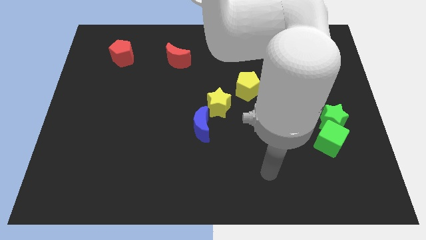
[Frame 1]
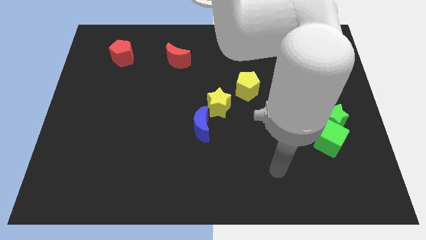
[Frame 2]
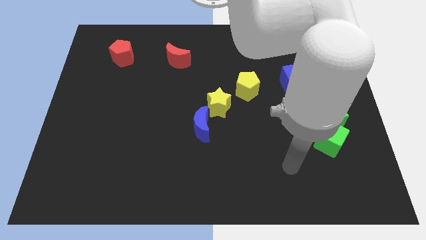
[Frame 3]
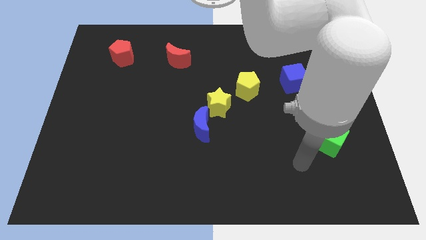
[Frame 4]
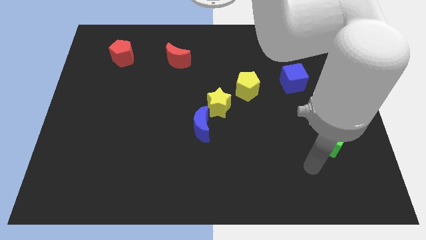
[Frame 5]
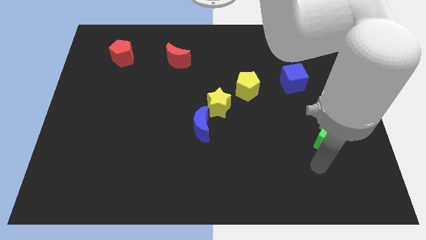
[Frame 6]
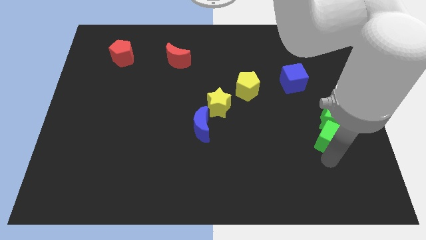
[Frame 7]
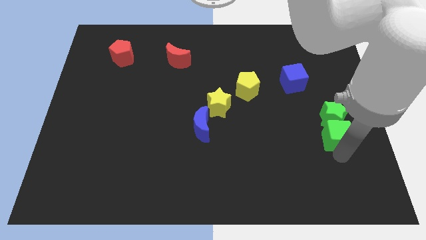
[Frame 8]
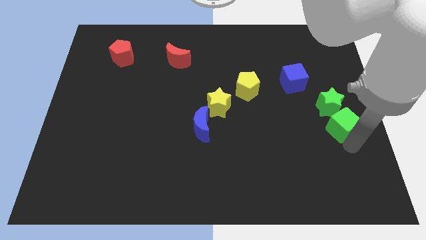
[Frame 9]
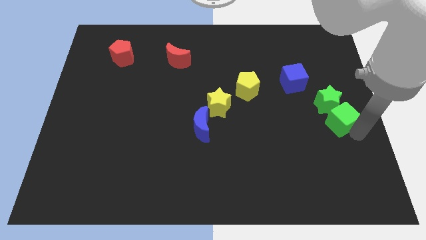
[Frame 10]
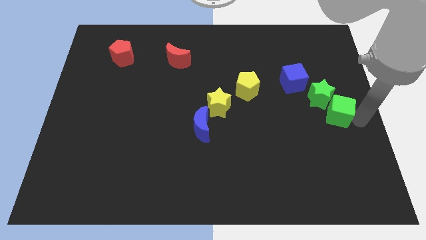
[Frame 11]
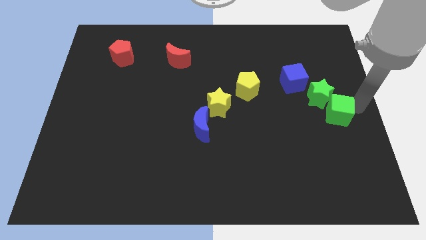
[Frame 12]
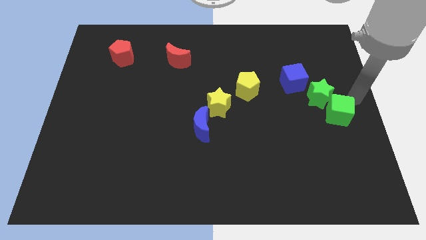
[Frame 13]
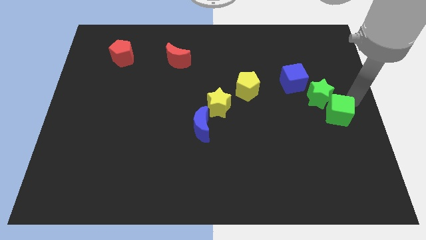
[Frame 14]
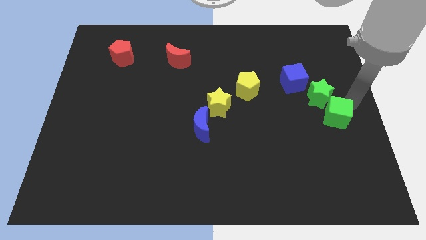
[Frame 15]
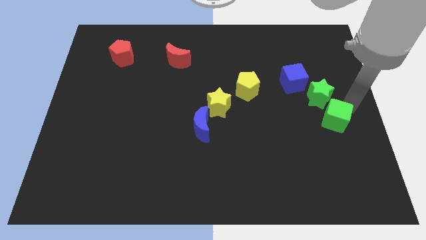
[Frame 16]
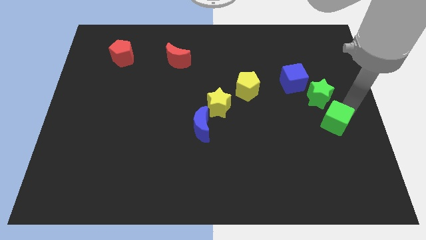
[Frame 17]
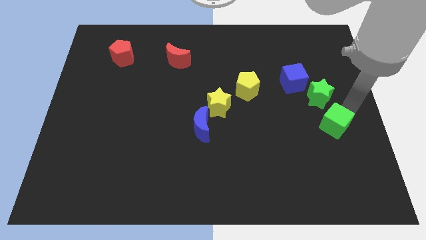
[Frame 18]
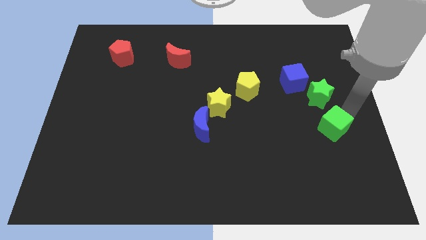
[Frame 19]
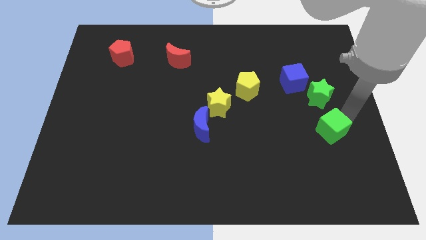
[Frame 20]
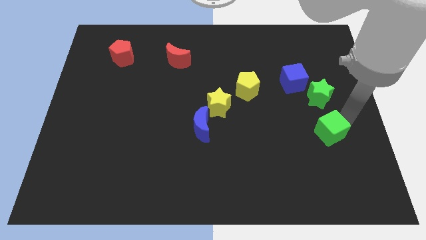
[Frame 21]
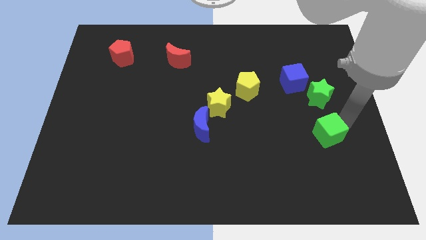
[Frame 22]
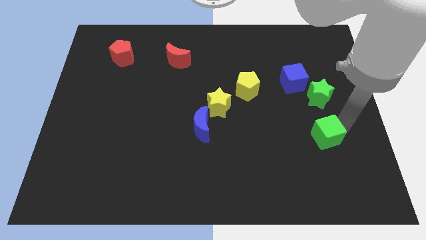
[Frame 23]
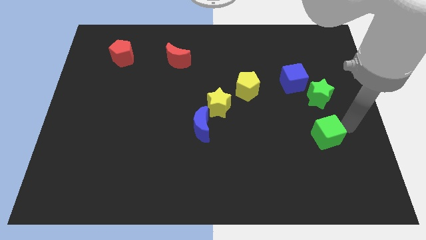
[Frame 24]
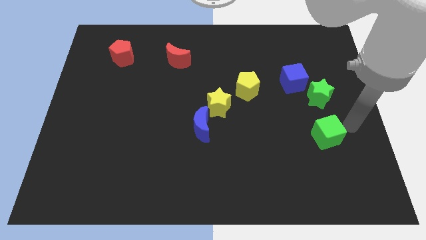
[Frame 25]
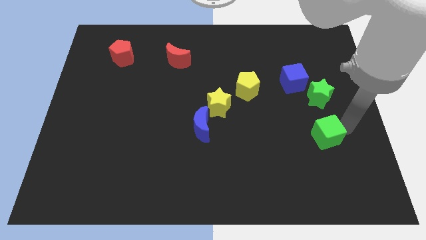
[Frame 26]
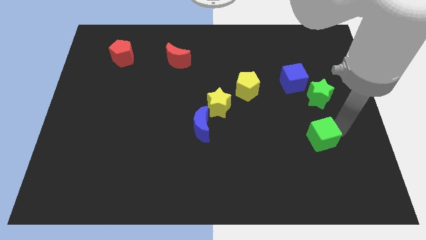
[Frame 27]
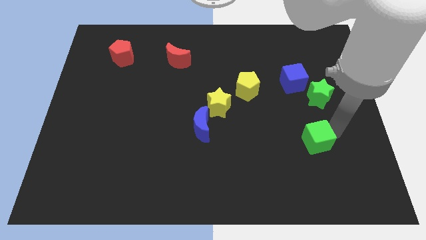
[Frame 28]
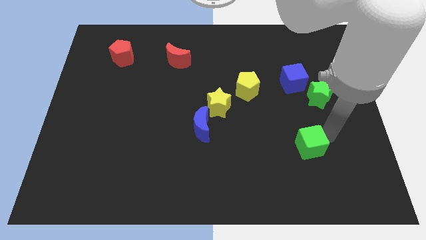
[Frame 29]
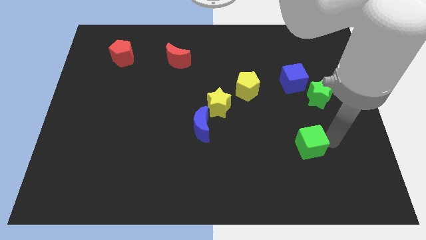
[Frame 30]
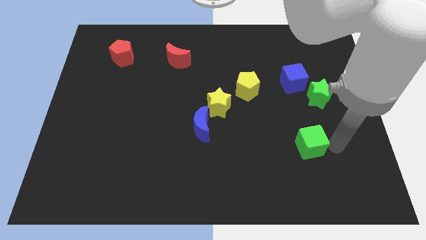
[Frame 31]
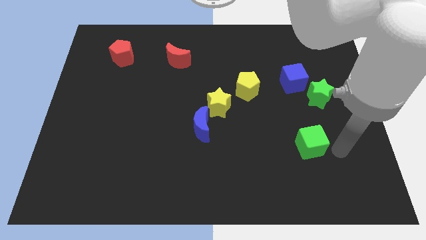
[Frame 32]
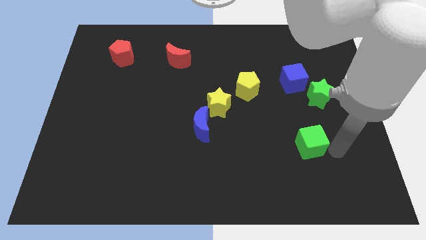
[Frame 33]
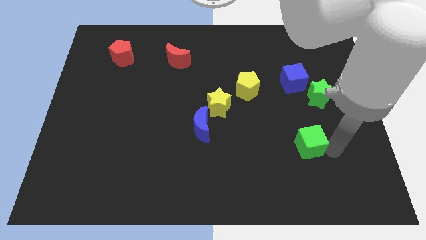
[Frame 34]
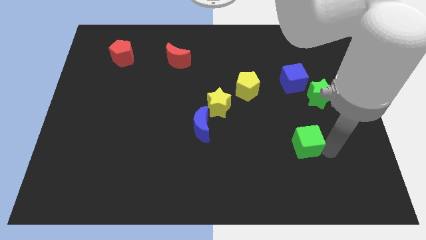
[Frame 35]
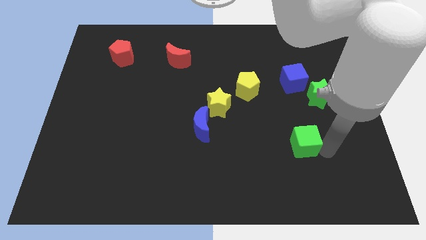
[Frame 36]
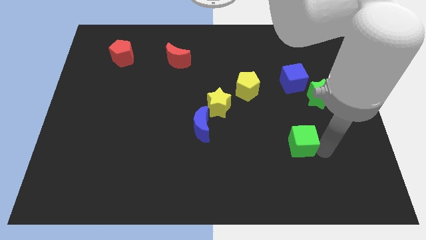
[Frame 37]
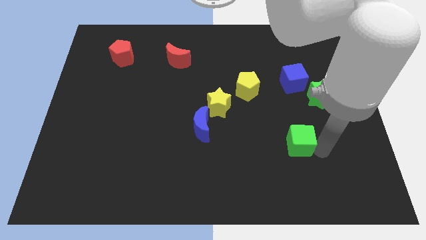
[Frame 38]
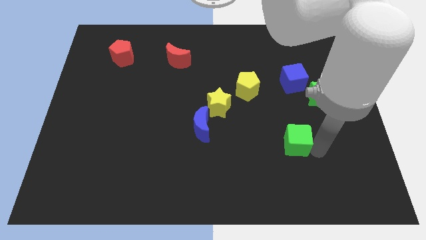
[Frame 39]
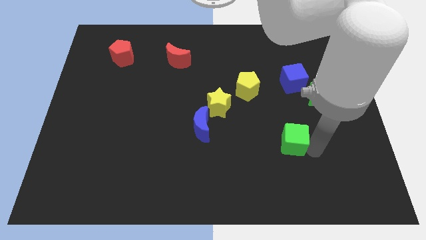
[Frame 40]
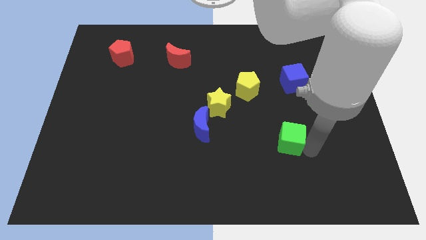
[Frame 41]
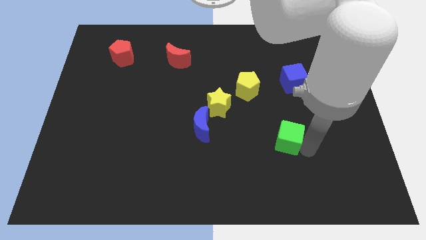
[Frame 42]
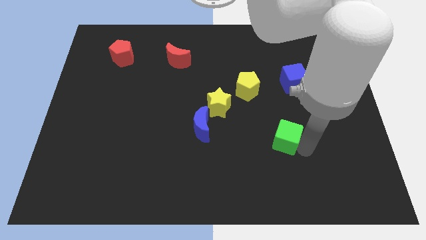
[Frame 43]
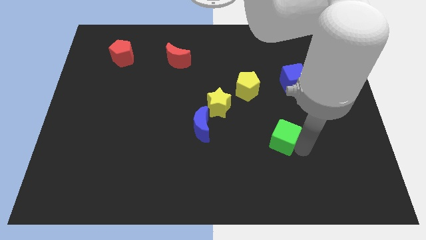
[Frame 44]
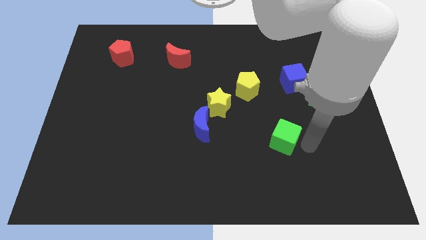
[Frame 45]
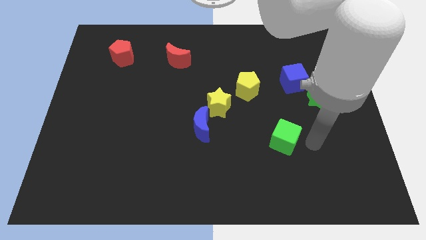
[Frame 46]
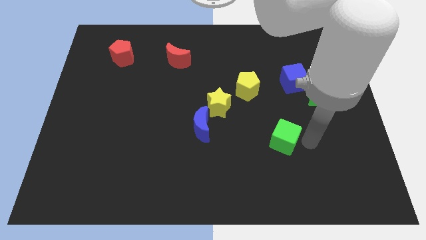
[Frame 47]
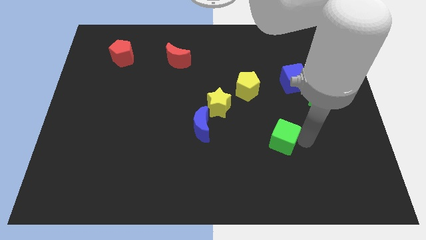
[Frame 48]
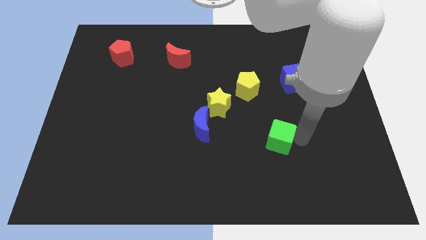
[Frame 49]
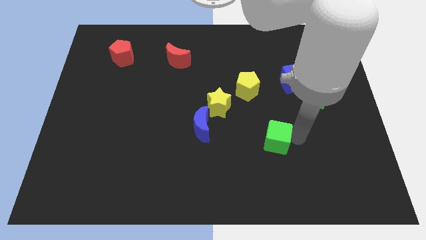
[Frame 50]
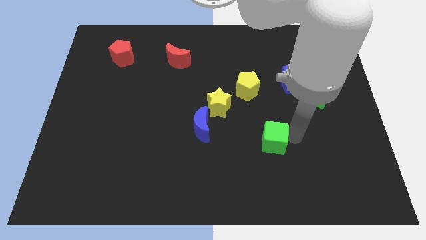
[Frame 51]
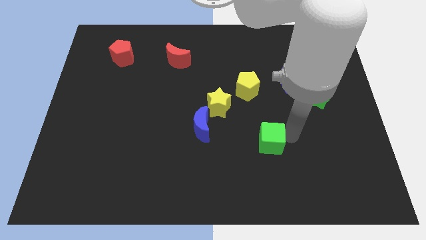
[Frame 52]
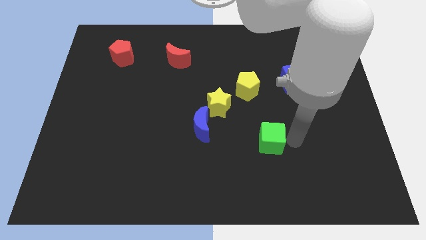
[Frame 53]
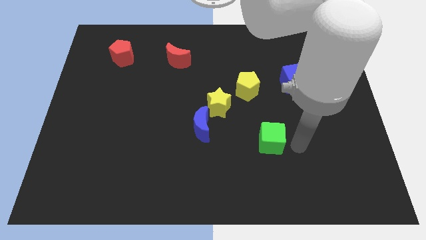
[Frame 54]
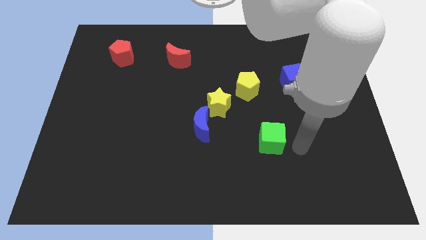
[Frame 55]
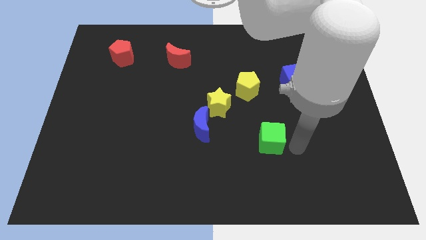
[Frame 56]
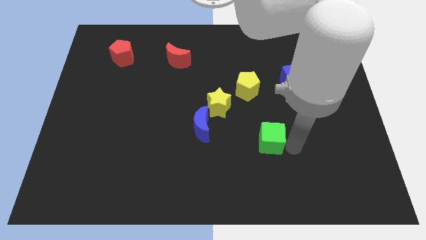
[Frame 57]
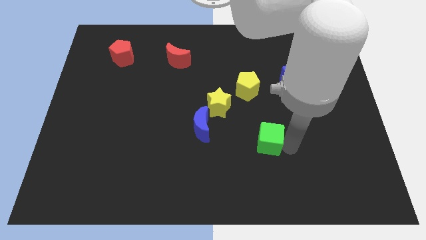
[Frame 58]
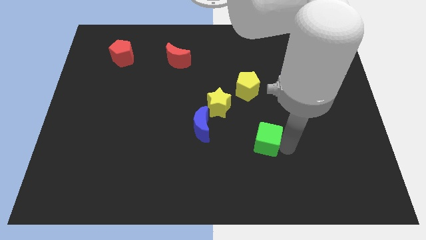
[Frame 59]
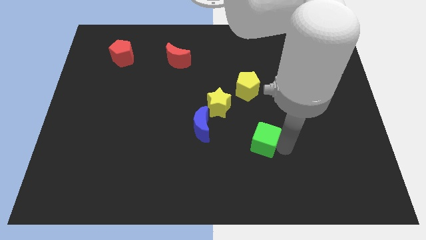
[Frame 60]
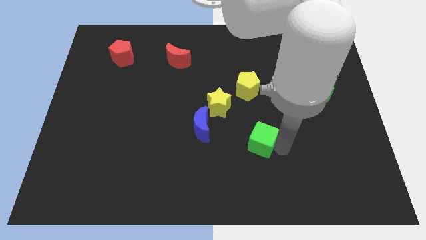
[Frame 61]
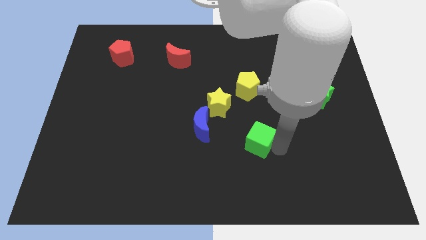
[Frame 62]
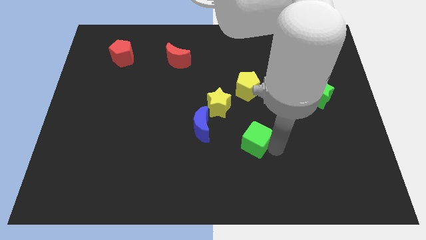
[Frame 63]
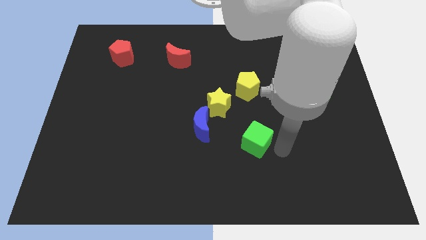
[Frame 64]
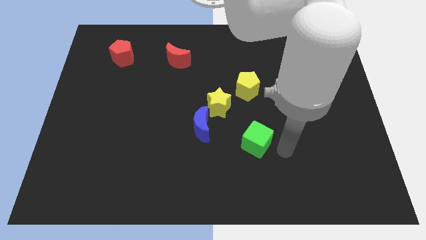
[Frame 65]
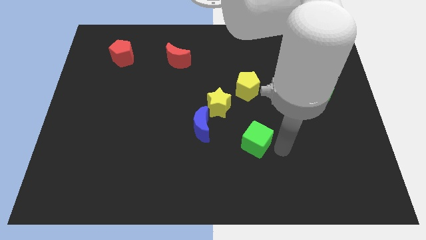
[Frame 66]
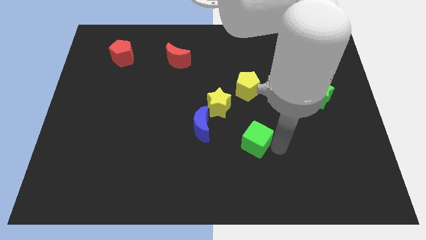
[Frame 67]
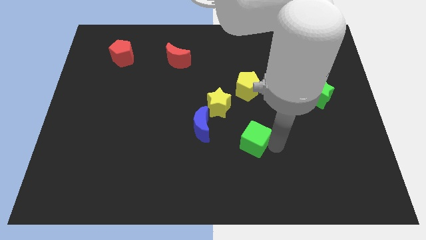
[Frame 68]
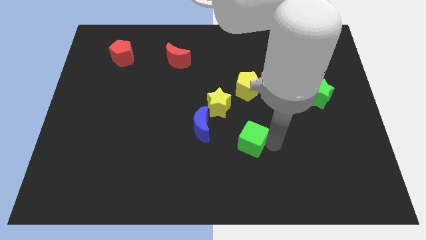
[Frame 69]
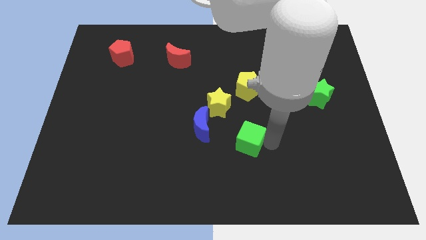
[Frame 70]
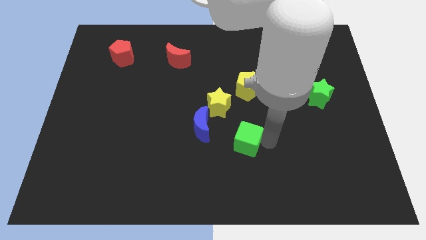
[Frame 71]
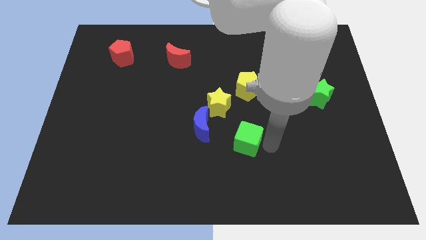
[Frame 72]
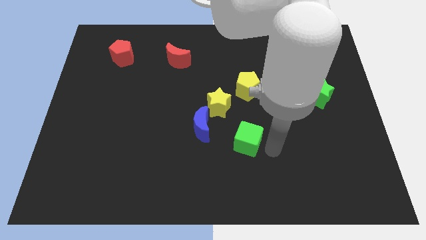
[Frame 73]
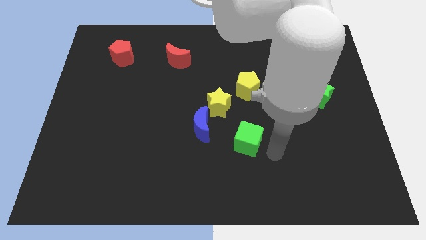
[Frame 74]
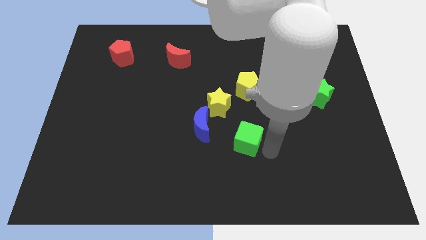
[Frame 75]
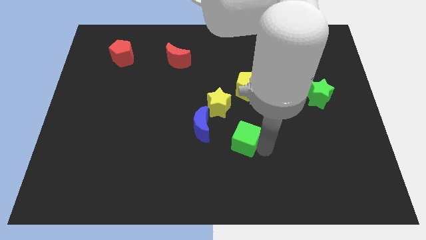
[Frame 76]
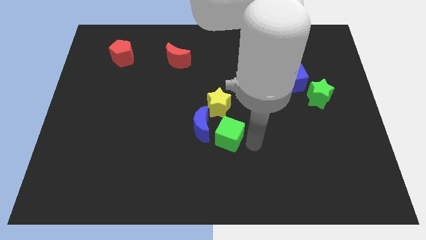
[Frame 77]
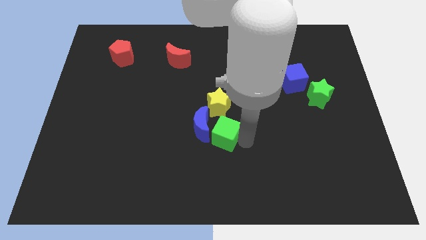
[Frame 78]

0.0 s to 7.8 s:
push the green cube to the blue moon
